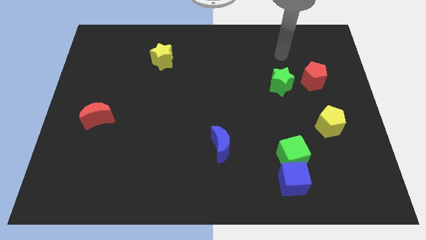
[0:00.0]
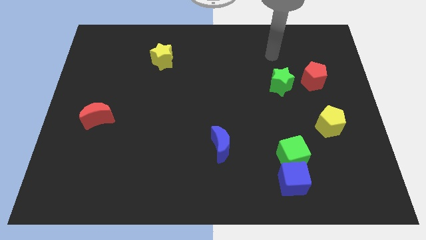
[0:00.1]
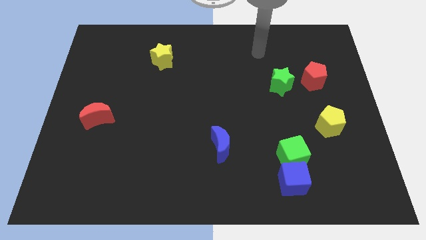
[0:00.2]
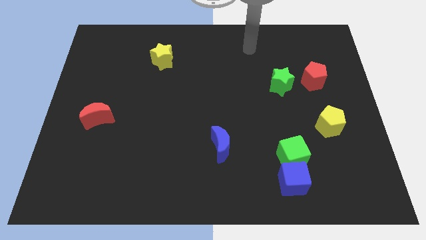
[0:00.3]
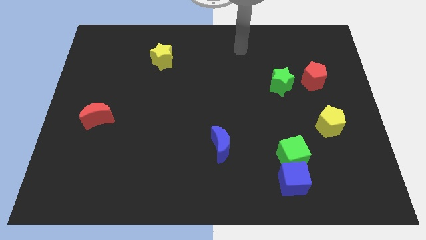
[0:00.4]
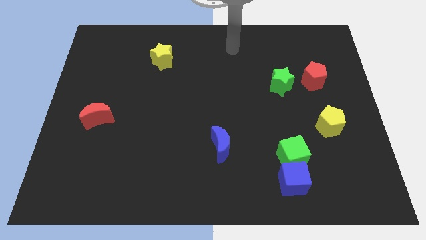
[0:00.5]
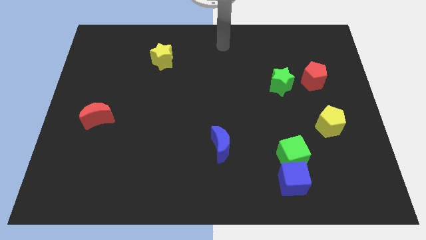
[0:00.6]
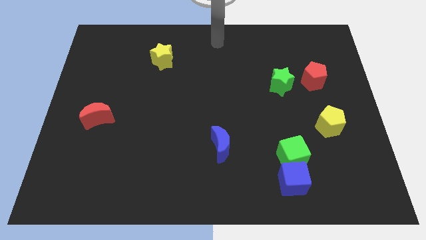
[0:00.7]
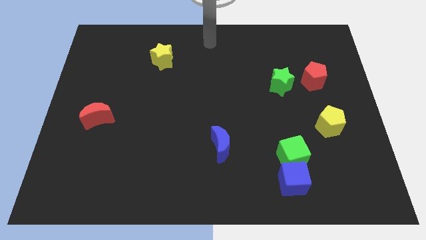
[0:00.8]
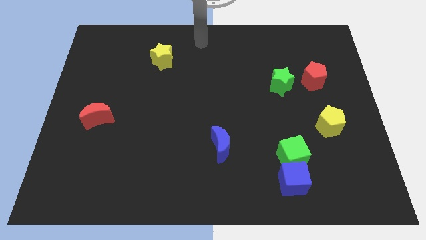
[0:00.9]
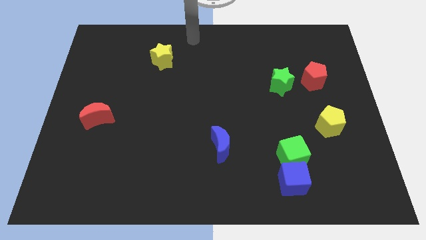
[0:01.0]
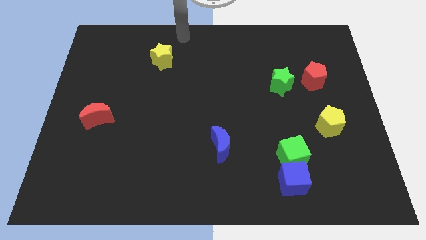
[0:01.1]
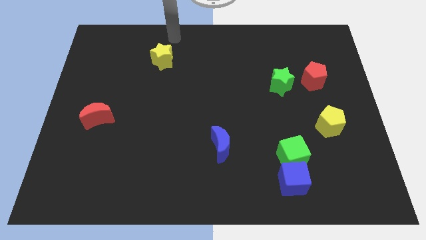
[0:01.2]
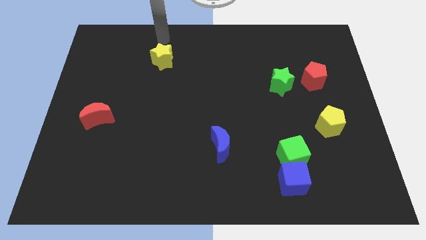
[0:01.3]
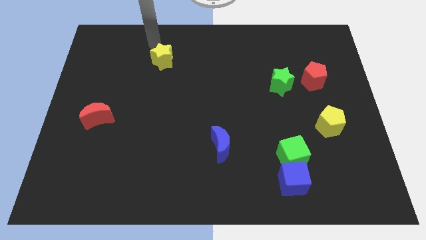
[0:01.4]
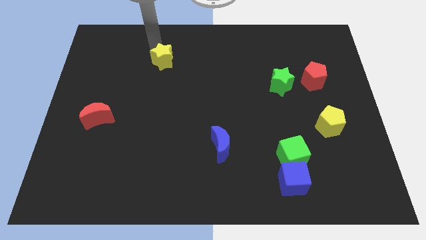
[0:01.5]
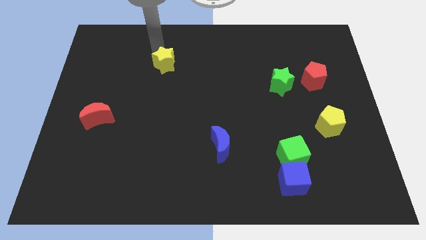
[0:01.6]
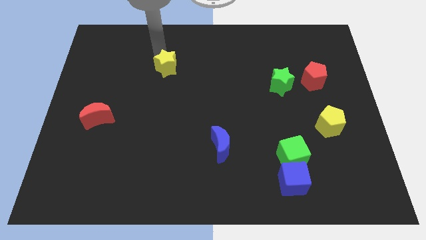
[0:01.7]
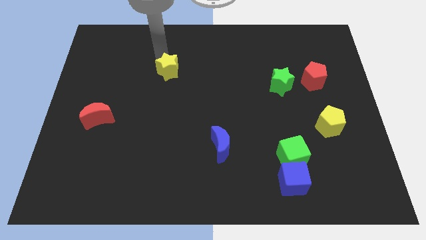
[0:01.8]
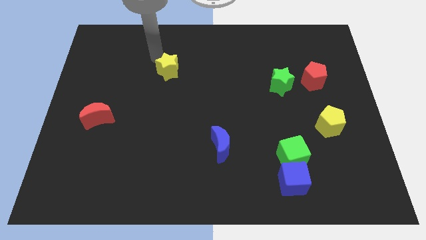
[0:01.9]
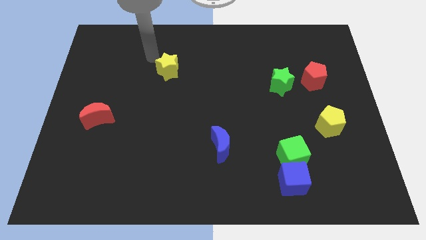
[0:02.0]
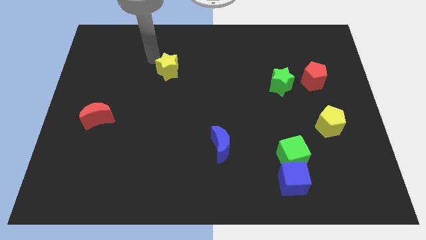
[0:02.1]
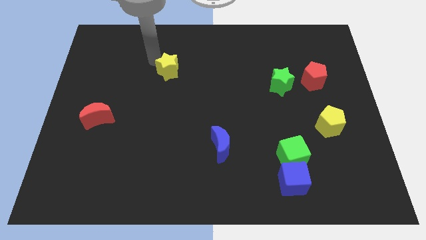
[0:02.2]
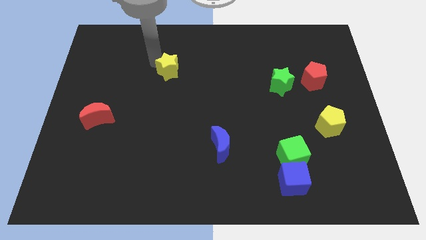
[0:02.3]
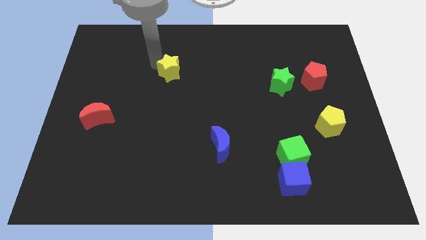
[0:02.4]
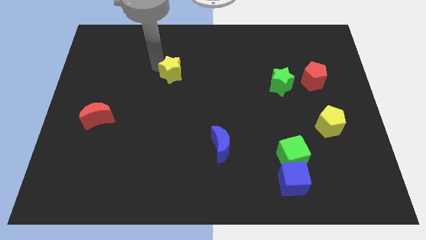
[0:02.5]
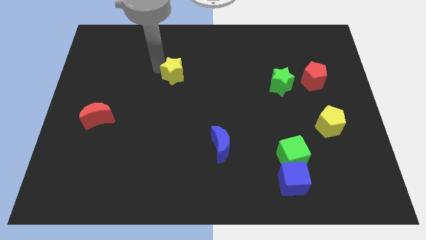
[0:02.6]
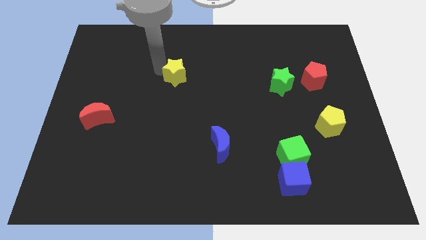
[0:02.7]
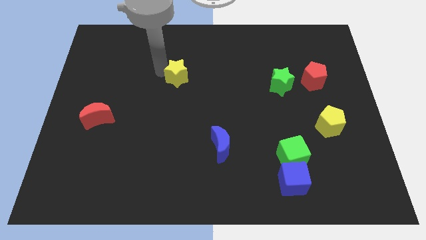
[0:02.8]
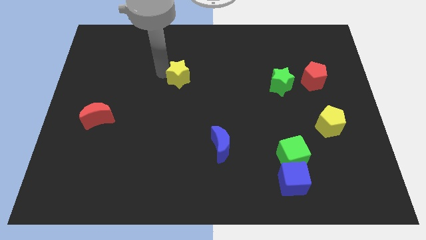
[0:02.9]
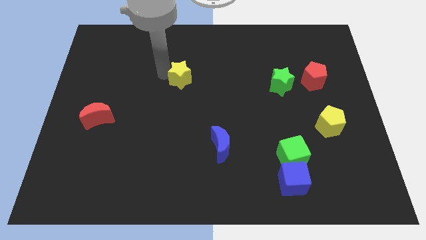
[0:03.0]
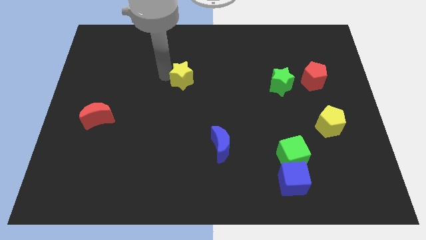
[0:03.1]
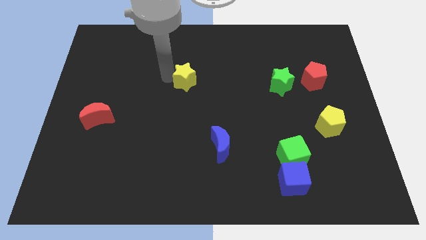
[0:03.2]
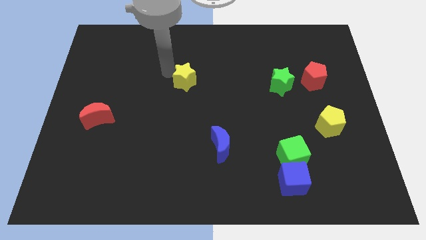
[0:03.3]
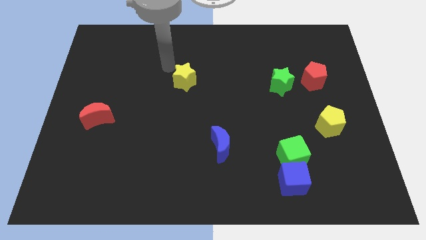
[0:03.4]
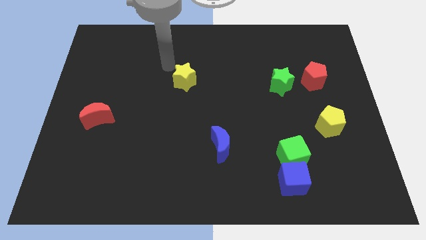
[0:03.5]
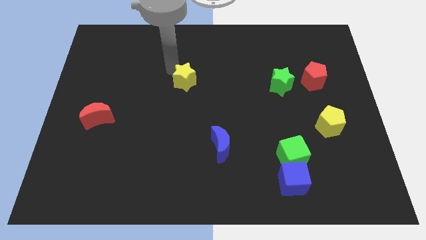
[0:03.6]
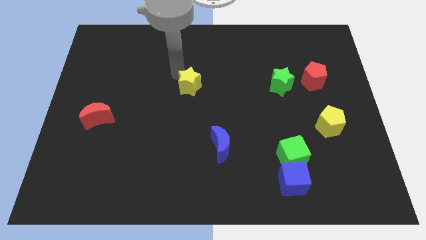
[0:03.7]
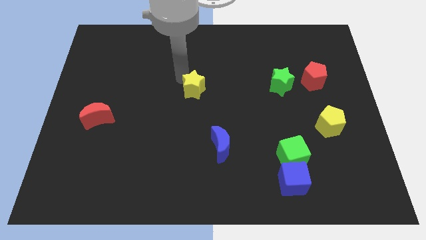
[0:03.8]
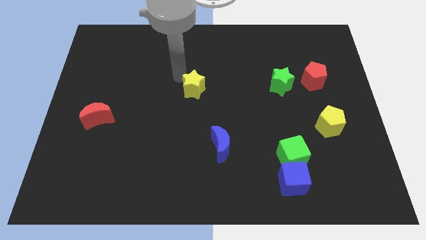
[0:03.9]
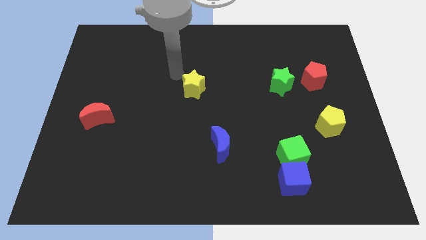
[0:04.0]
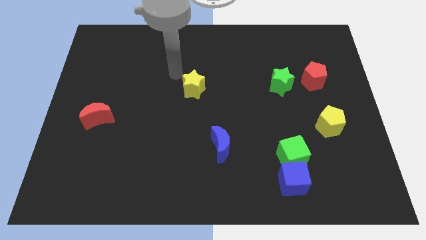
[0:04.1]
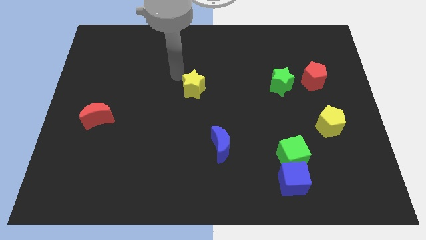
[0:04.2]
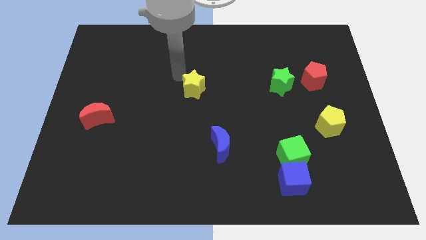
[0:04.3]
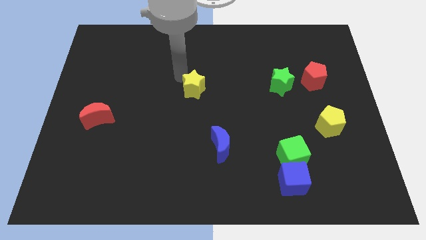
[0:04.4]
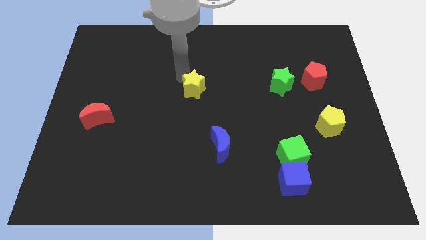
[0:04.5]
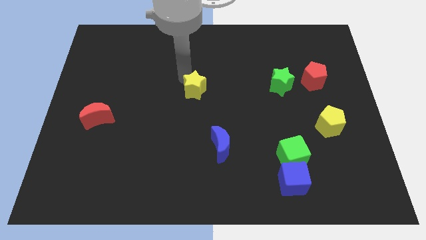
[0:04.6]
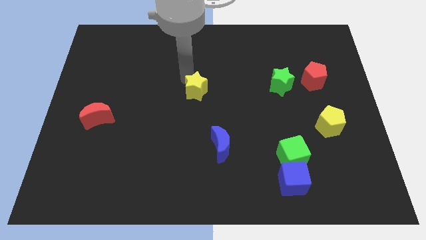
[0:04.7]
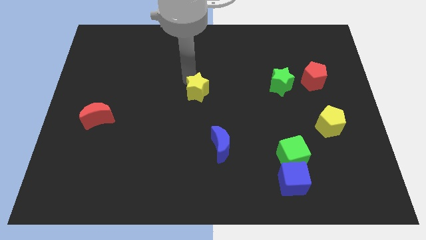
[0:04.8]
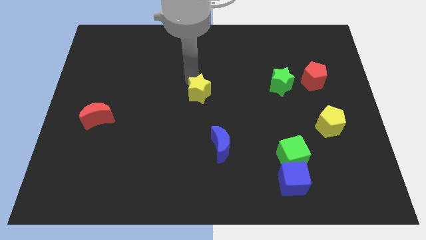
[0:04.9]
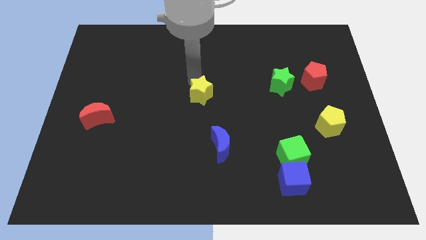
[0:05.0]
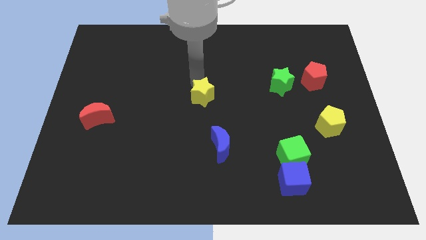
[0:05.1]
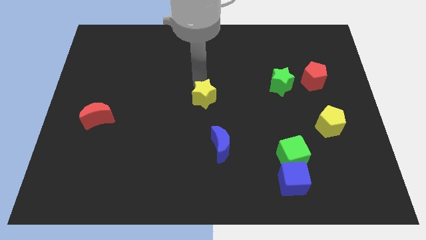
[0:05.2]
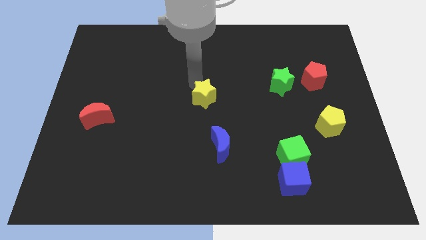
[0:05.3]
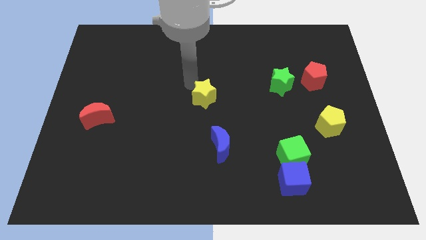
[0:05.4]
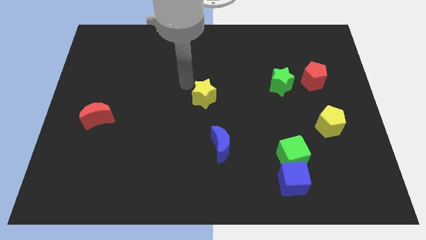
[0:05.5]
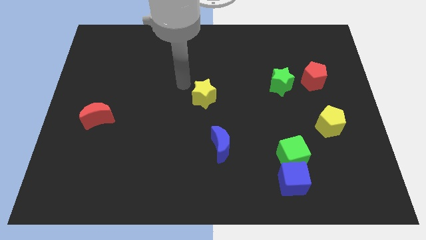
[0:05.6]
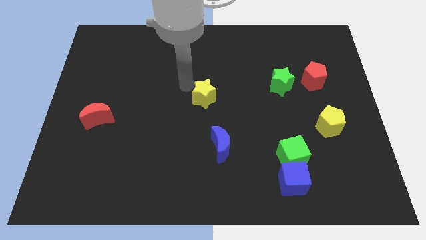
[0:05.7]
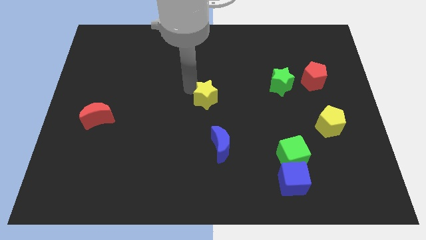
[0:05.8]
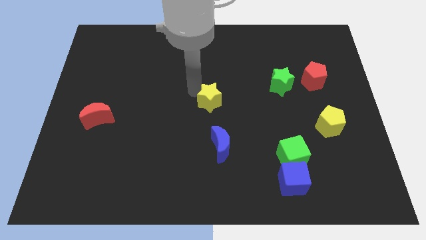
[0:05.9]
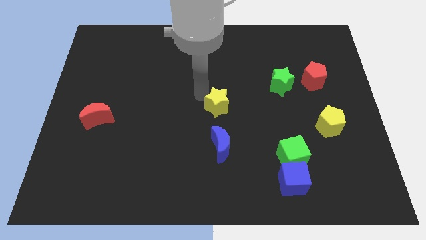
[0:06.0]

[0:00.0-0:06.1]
slide the yellow star diagonally downwards and right

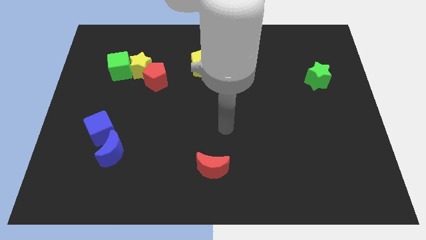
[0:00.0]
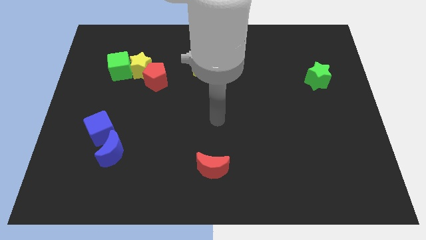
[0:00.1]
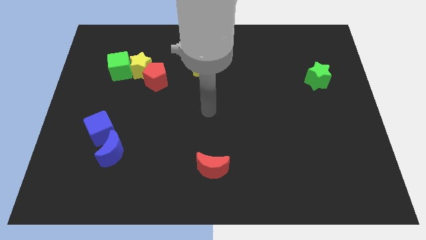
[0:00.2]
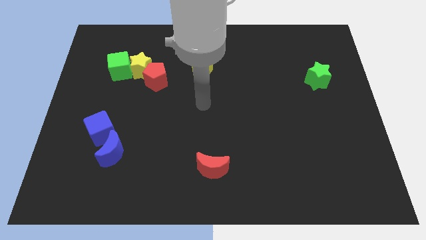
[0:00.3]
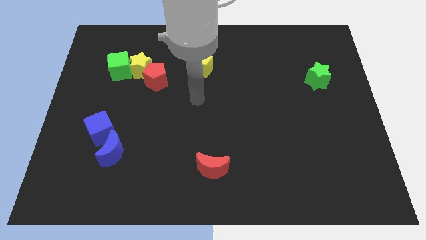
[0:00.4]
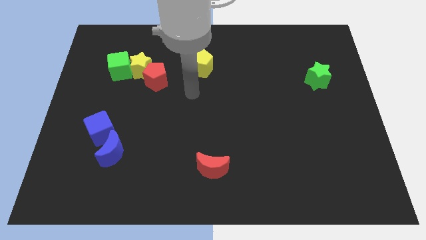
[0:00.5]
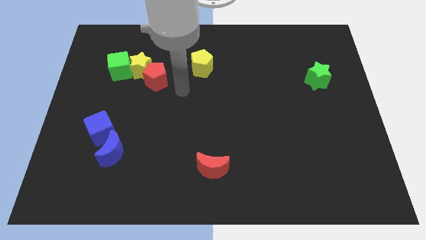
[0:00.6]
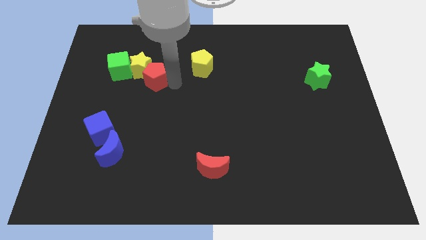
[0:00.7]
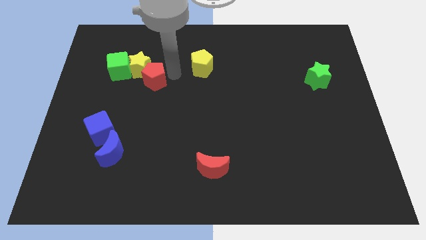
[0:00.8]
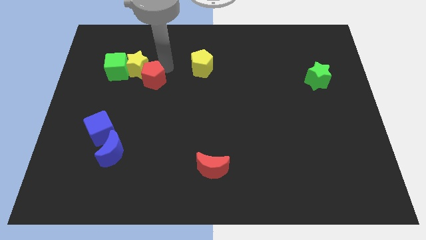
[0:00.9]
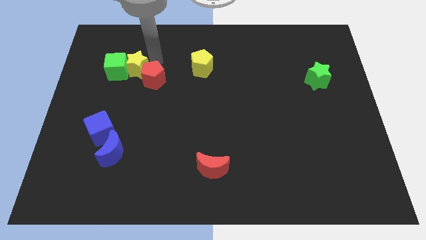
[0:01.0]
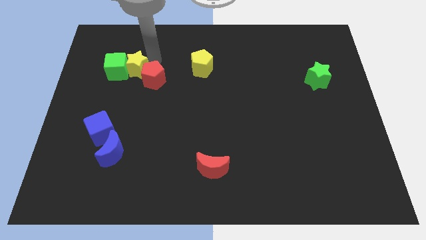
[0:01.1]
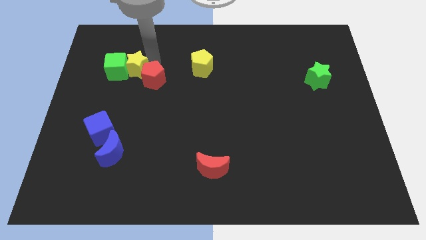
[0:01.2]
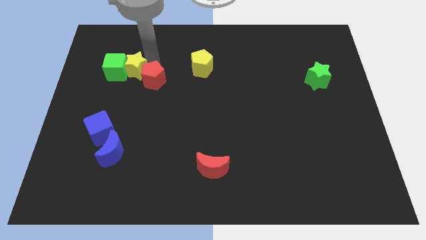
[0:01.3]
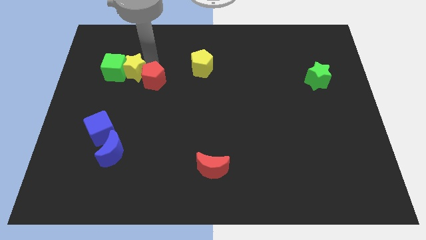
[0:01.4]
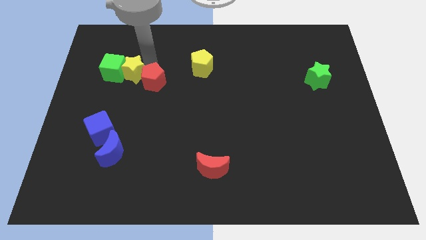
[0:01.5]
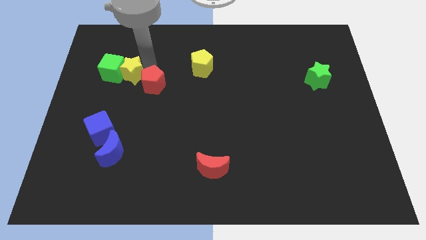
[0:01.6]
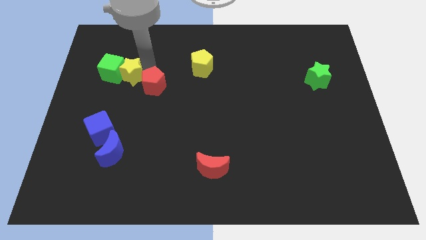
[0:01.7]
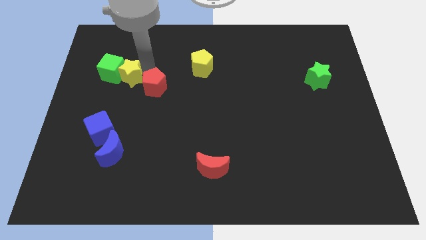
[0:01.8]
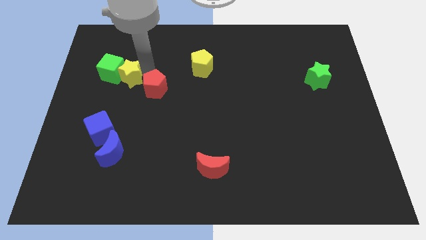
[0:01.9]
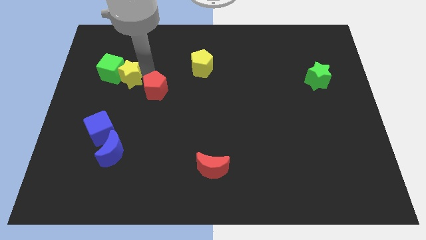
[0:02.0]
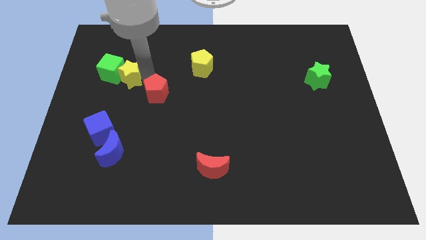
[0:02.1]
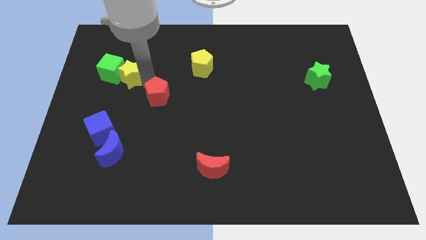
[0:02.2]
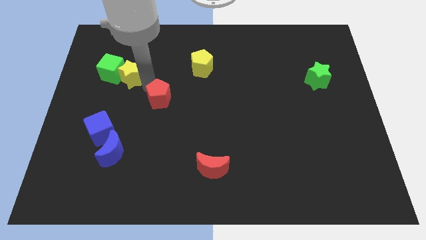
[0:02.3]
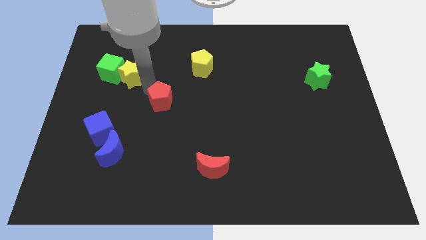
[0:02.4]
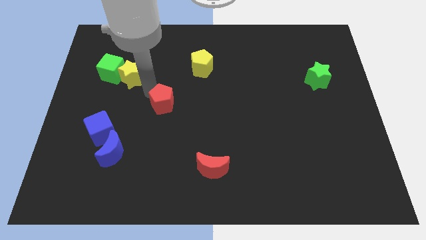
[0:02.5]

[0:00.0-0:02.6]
push the red pentagon a little bit downwards

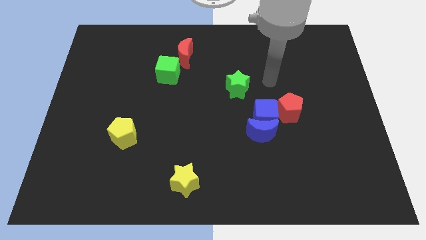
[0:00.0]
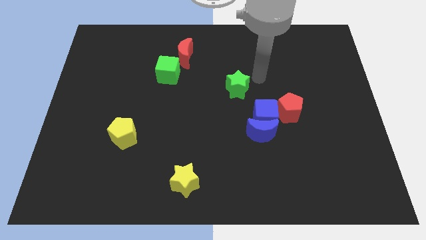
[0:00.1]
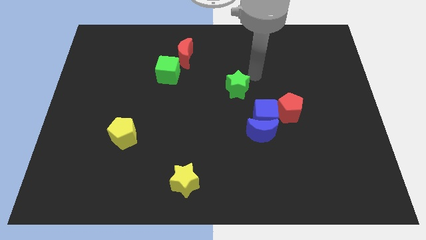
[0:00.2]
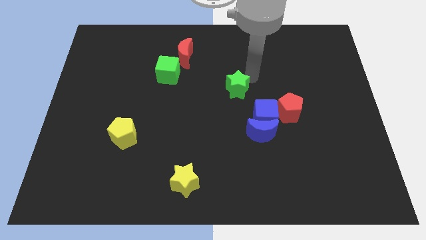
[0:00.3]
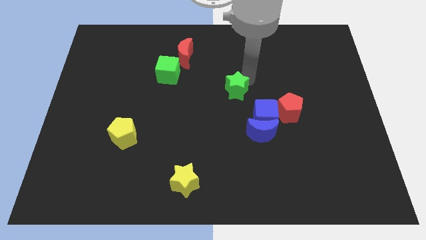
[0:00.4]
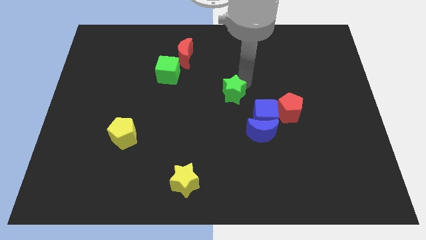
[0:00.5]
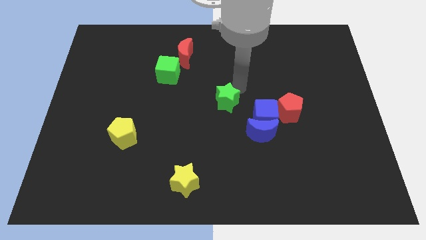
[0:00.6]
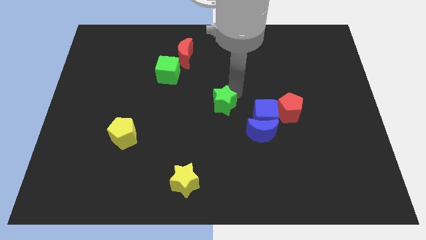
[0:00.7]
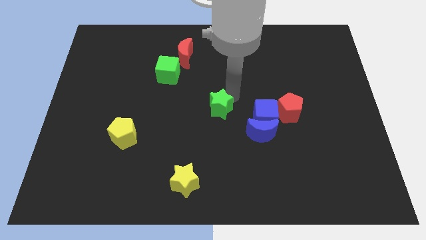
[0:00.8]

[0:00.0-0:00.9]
slightly push the green star downwards and to the left diagonally
